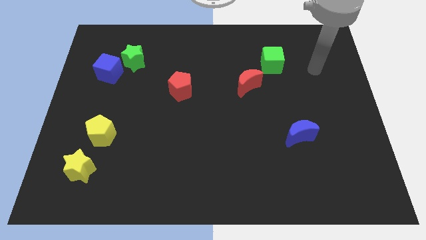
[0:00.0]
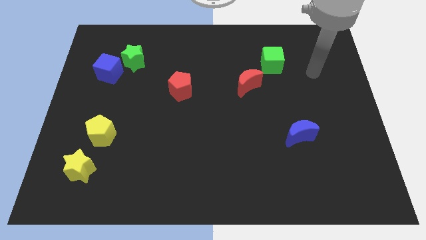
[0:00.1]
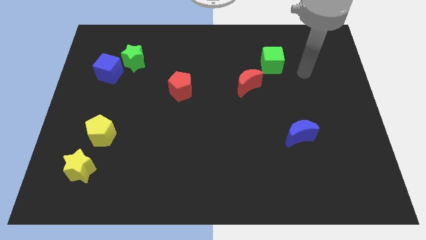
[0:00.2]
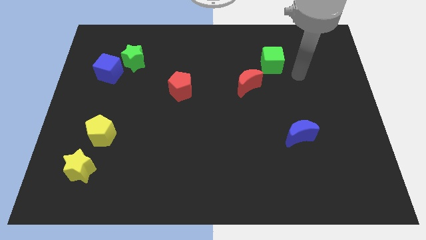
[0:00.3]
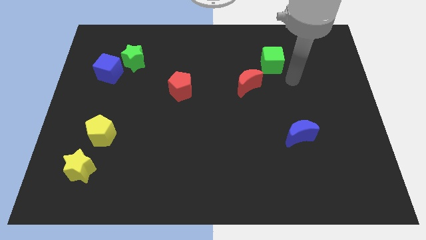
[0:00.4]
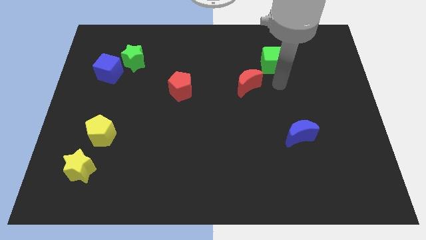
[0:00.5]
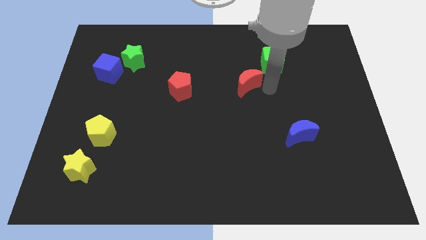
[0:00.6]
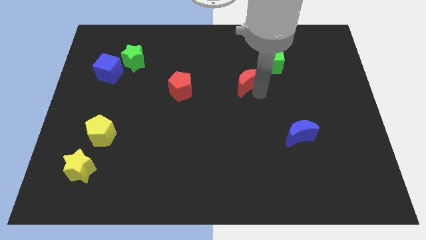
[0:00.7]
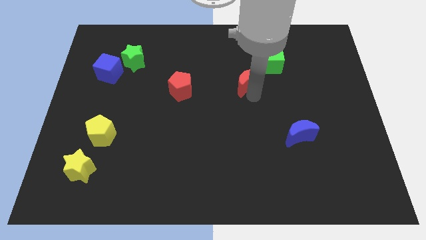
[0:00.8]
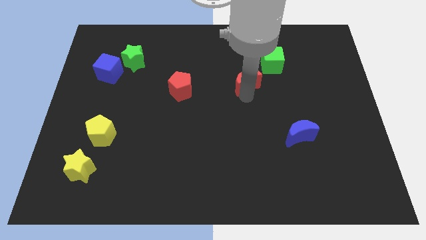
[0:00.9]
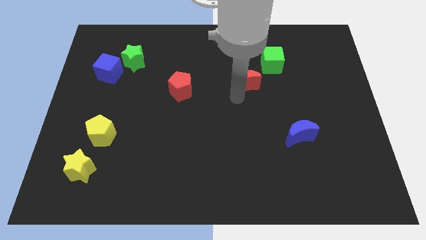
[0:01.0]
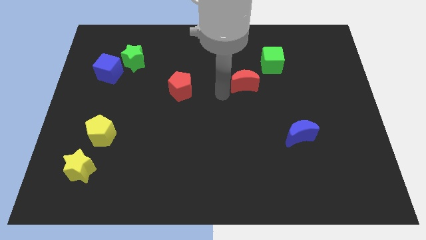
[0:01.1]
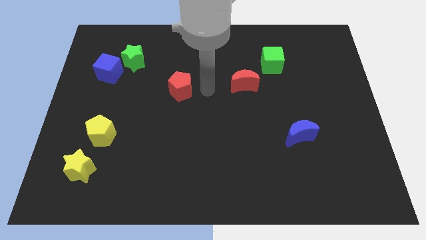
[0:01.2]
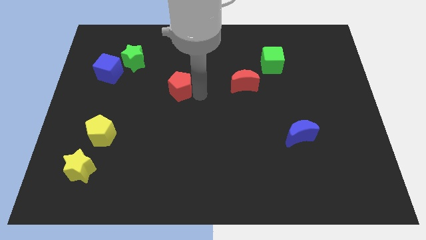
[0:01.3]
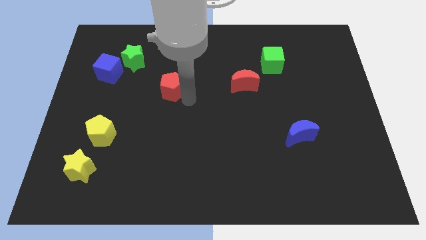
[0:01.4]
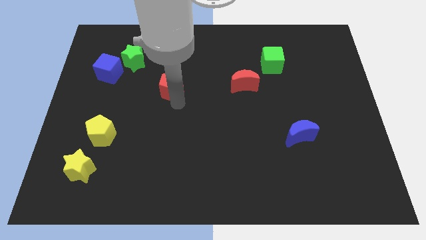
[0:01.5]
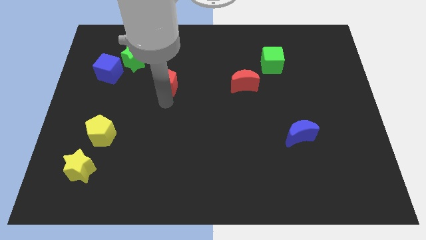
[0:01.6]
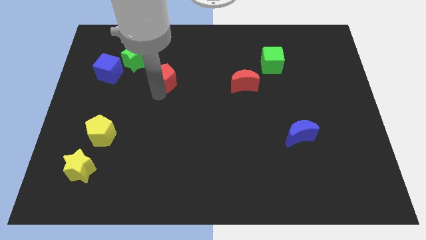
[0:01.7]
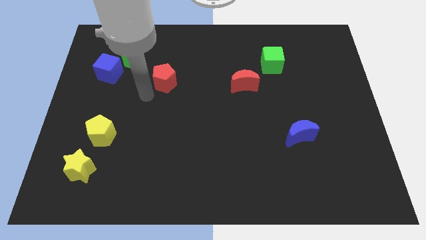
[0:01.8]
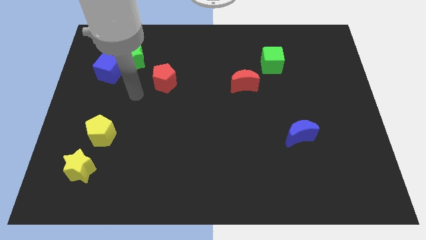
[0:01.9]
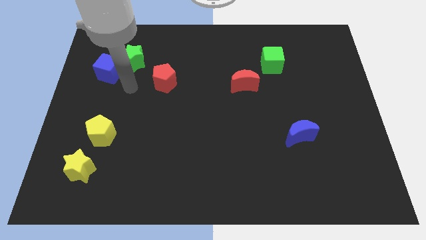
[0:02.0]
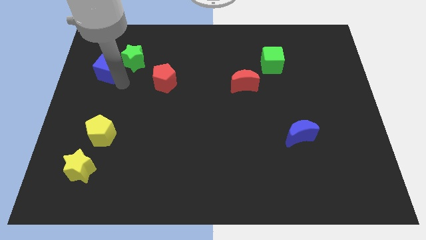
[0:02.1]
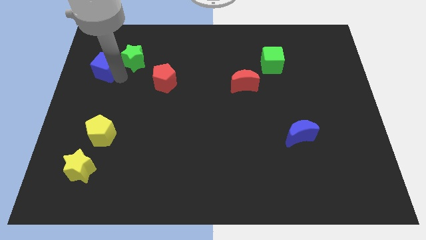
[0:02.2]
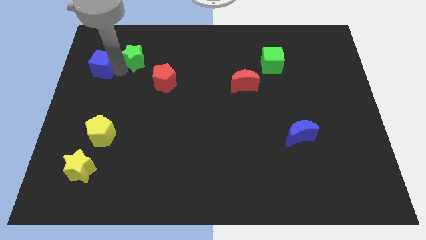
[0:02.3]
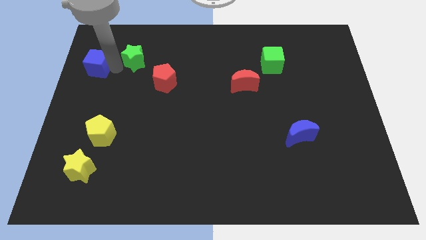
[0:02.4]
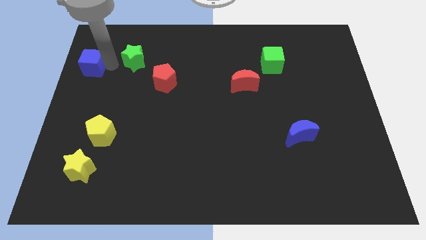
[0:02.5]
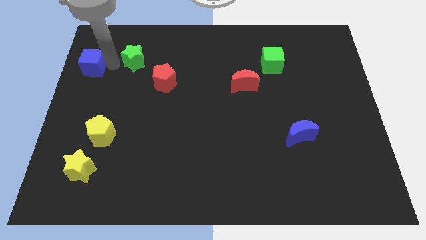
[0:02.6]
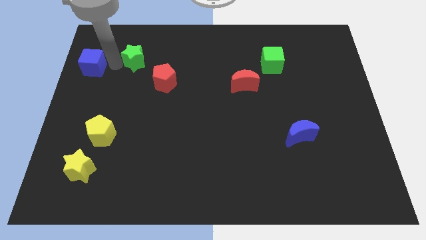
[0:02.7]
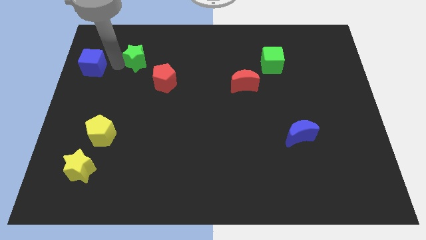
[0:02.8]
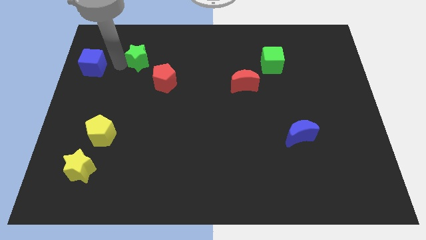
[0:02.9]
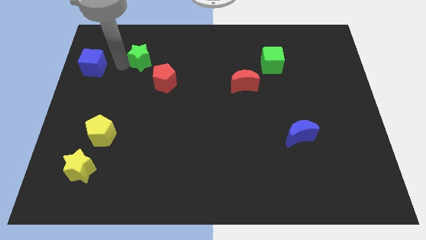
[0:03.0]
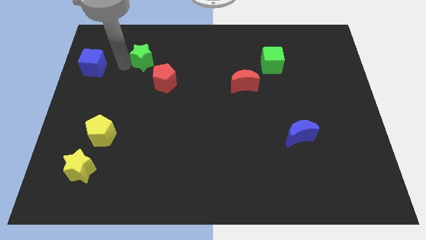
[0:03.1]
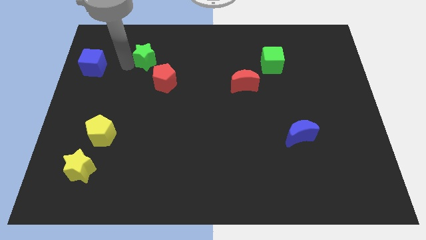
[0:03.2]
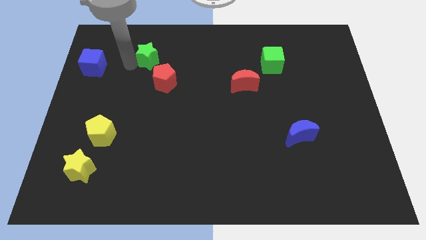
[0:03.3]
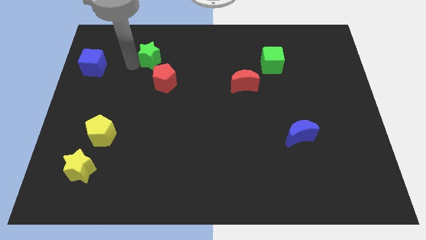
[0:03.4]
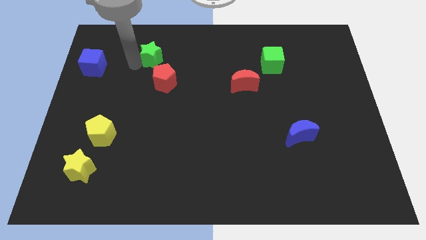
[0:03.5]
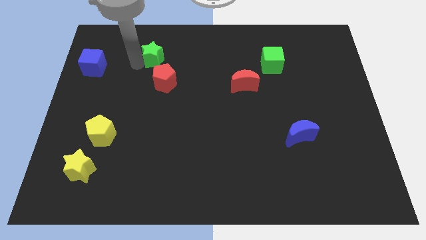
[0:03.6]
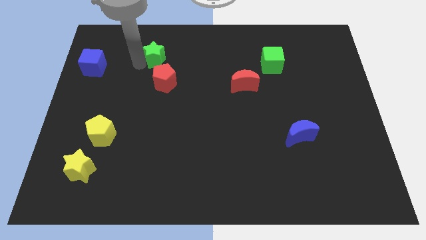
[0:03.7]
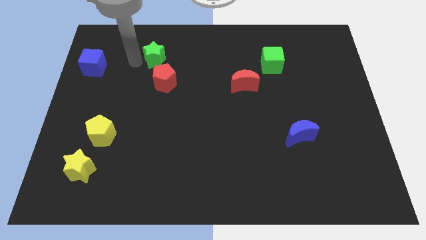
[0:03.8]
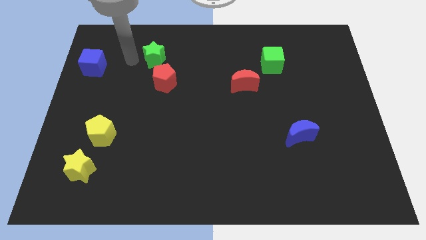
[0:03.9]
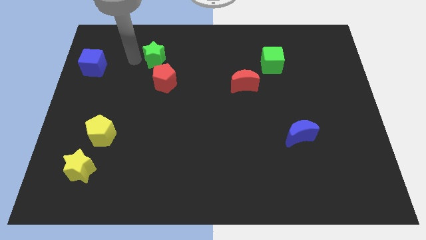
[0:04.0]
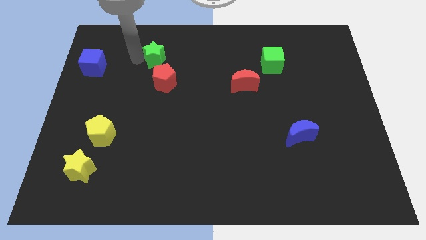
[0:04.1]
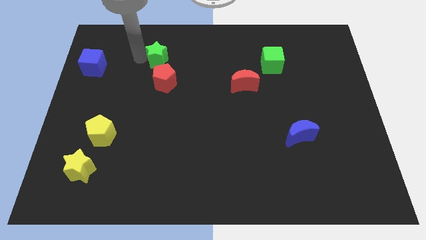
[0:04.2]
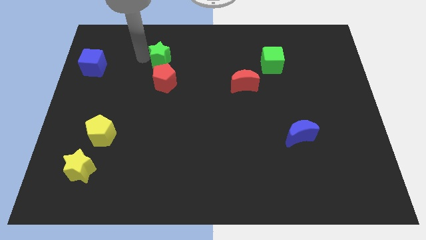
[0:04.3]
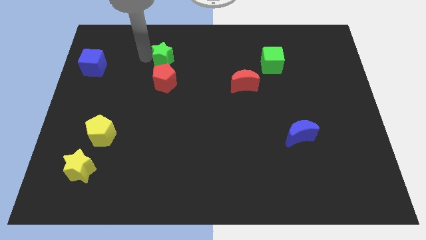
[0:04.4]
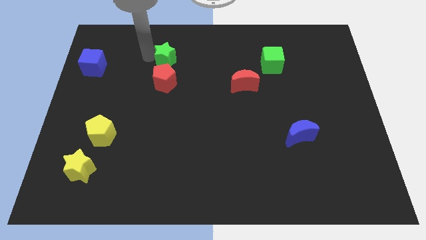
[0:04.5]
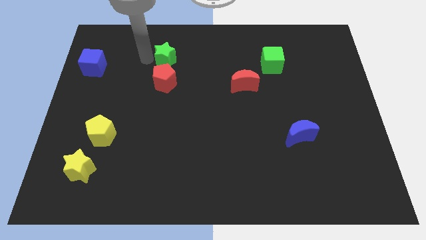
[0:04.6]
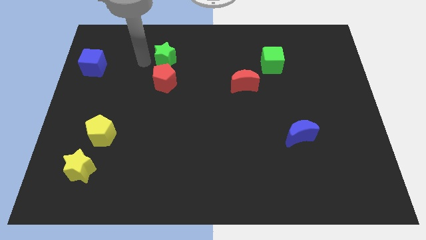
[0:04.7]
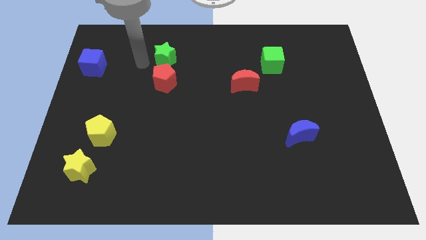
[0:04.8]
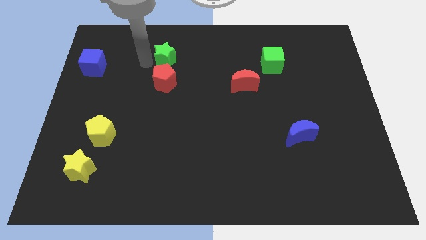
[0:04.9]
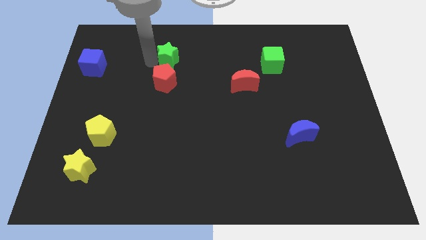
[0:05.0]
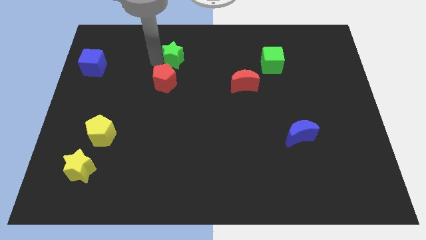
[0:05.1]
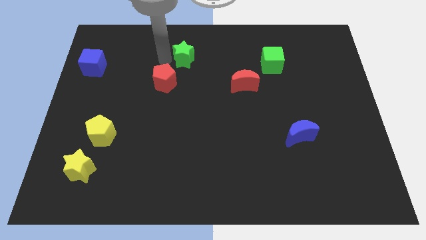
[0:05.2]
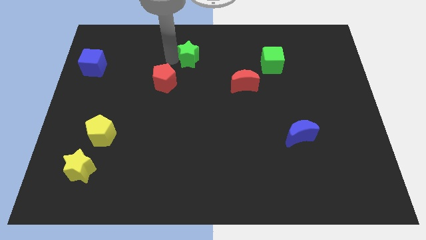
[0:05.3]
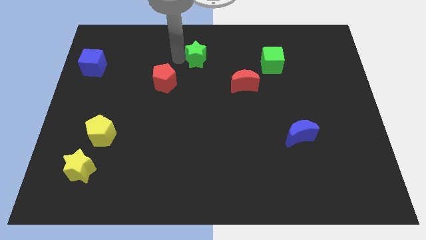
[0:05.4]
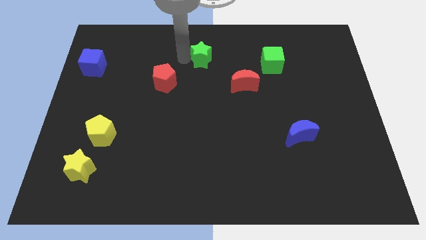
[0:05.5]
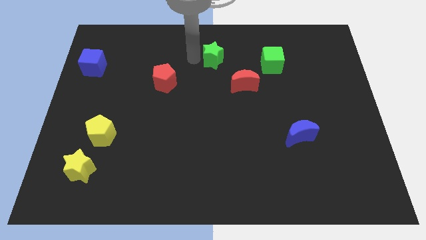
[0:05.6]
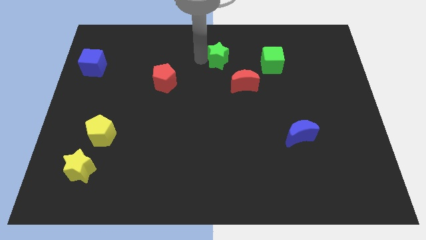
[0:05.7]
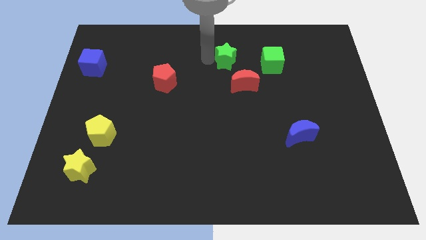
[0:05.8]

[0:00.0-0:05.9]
push the green star to the top of the red moon

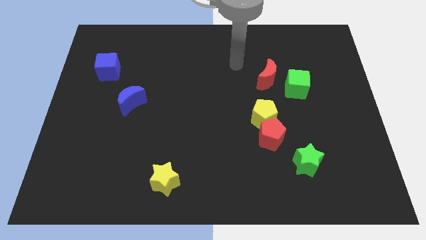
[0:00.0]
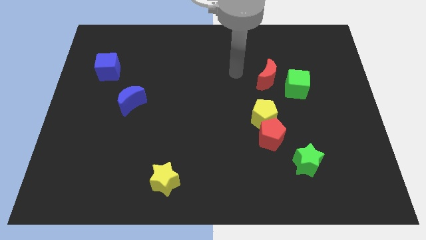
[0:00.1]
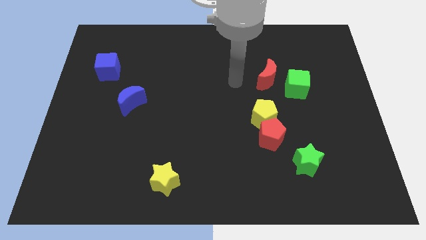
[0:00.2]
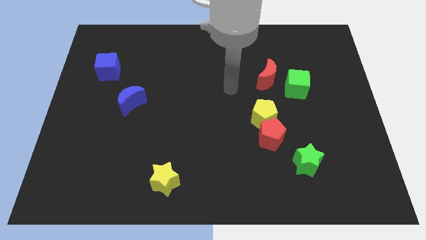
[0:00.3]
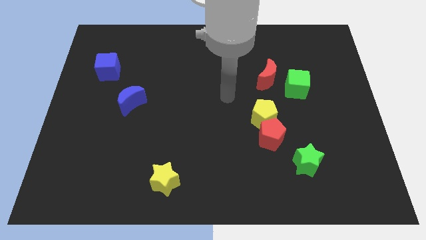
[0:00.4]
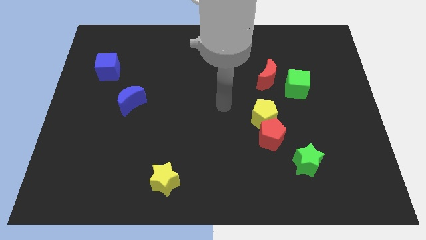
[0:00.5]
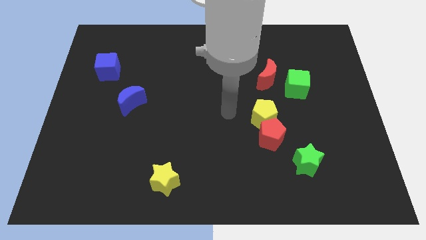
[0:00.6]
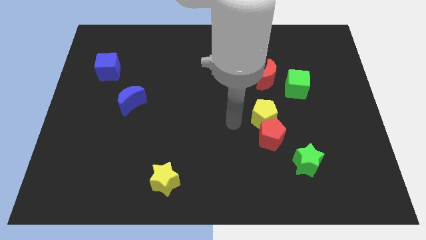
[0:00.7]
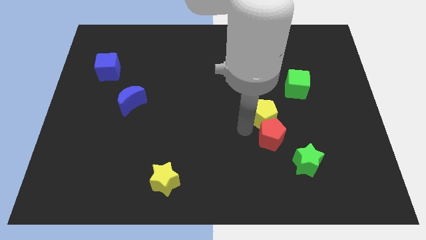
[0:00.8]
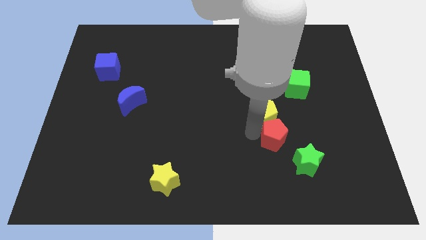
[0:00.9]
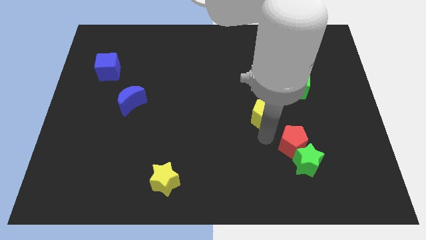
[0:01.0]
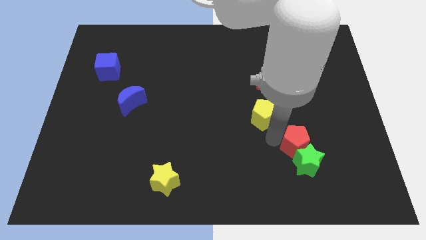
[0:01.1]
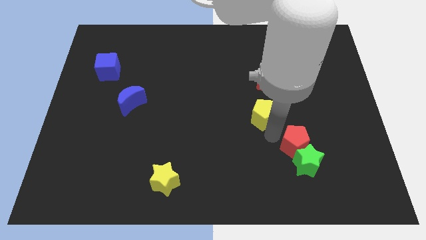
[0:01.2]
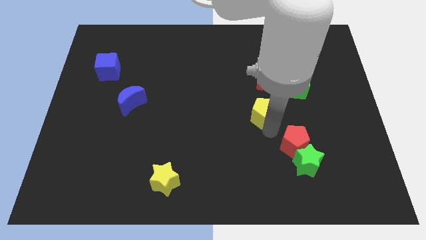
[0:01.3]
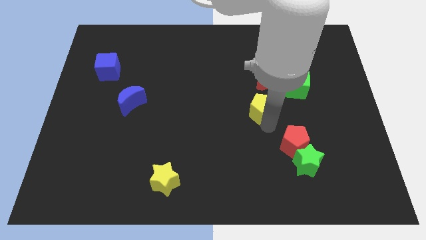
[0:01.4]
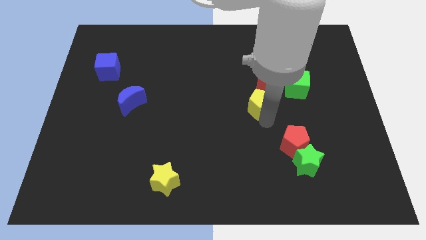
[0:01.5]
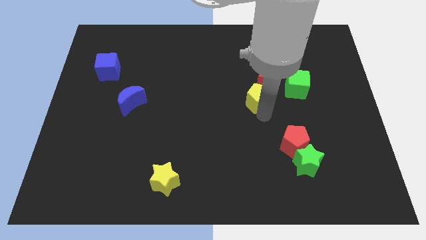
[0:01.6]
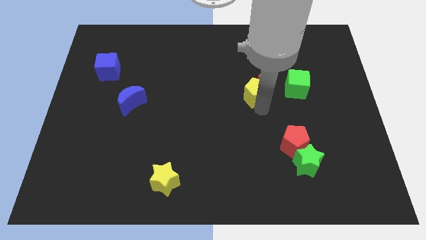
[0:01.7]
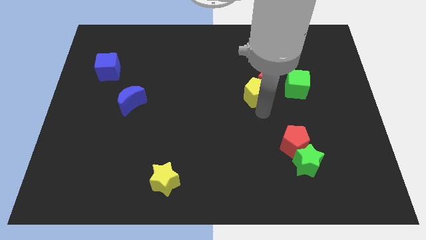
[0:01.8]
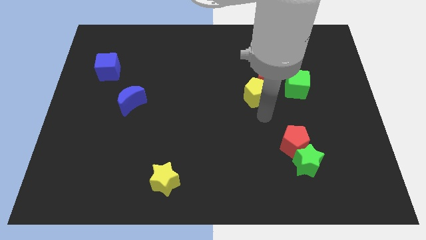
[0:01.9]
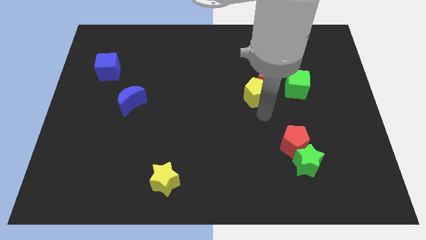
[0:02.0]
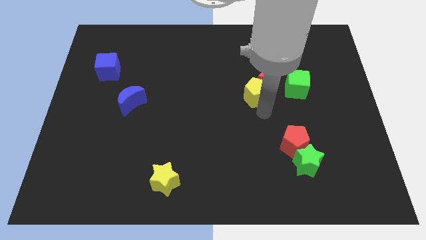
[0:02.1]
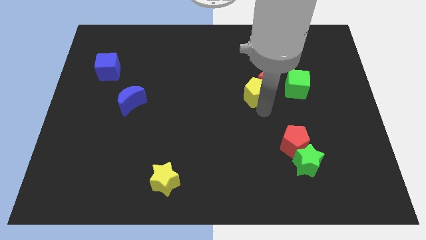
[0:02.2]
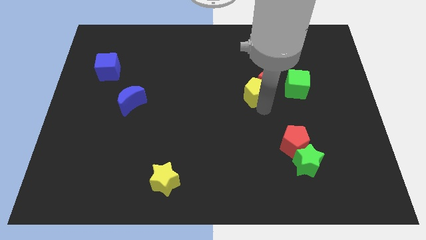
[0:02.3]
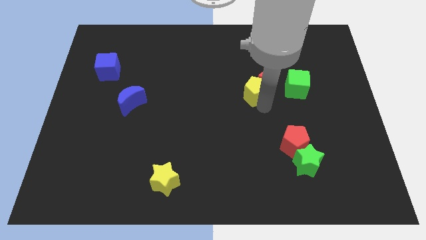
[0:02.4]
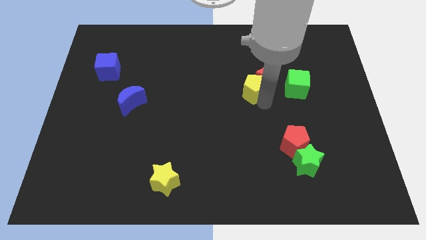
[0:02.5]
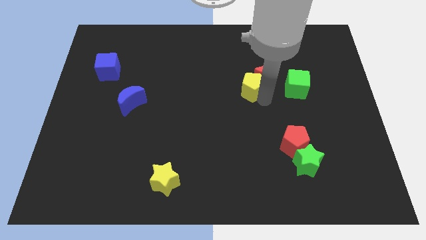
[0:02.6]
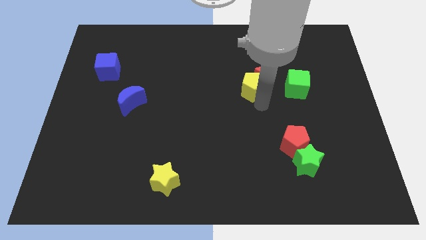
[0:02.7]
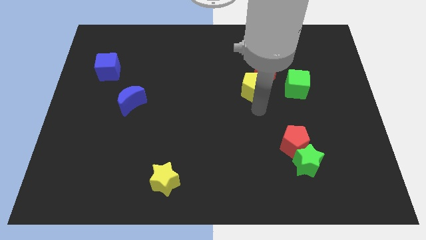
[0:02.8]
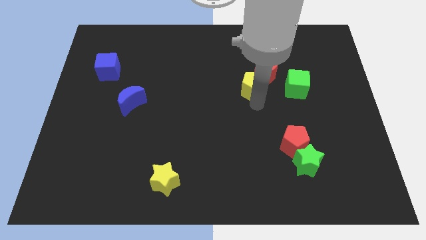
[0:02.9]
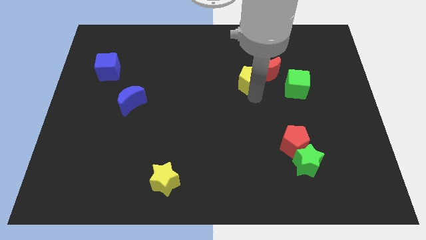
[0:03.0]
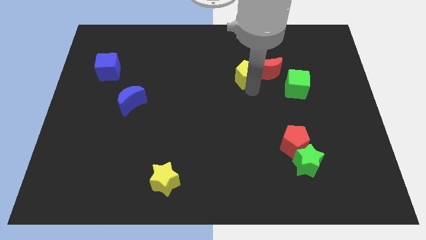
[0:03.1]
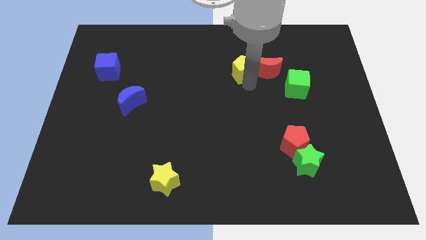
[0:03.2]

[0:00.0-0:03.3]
push the yellow pentagon to the top left side of the red moon
